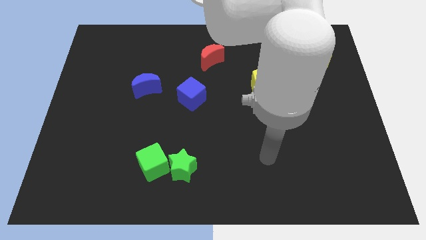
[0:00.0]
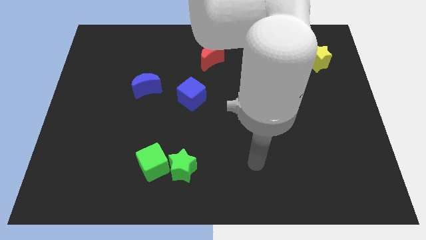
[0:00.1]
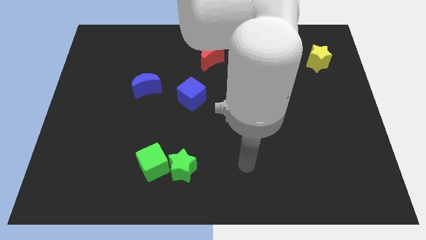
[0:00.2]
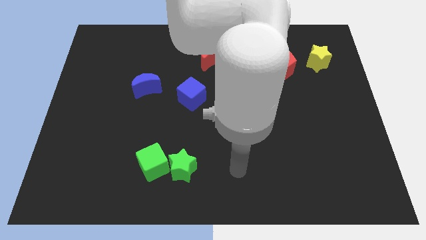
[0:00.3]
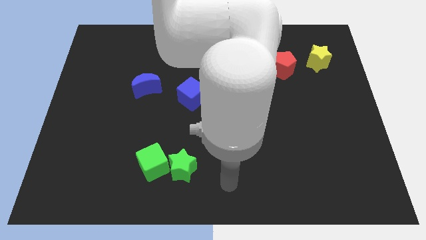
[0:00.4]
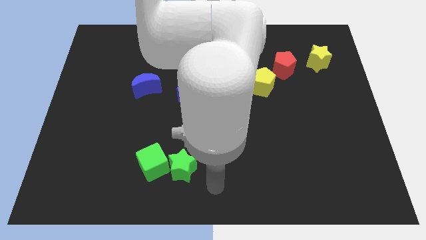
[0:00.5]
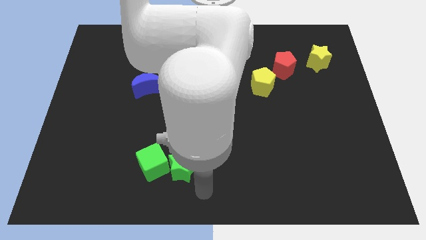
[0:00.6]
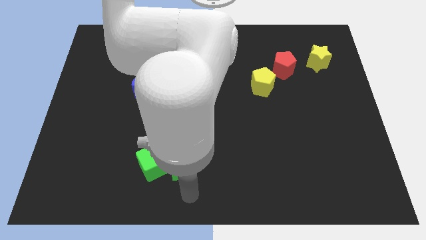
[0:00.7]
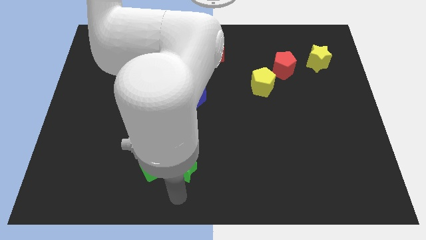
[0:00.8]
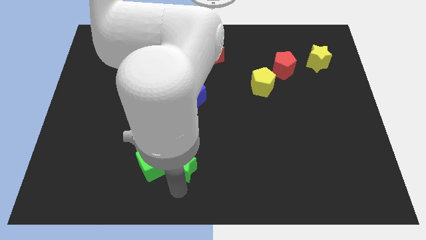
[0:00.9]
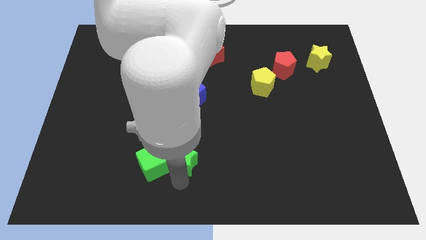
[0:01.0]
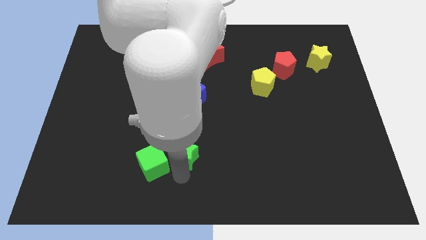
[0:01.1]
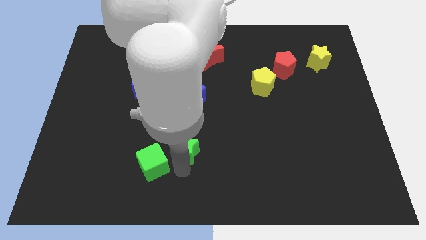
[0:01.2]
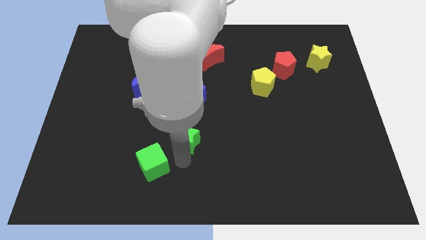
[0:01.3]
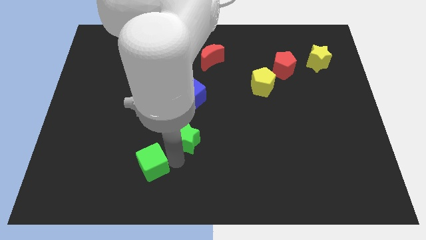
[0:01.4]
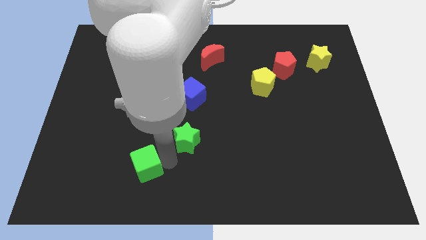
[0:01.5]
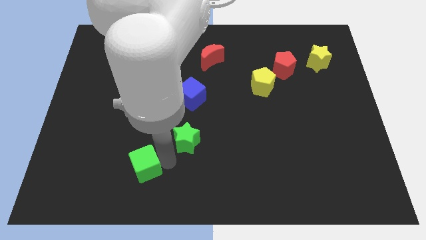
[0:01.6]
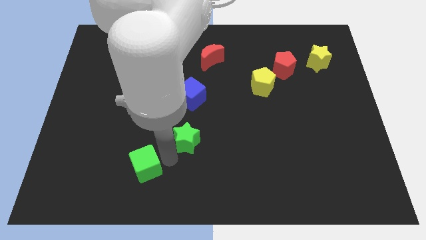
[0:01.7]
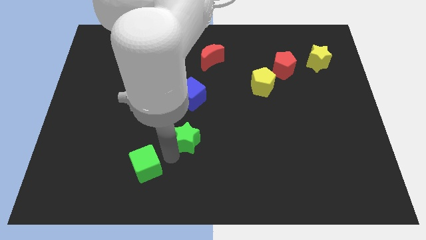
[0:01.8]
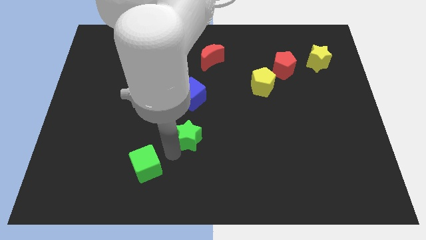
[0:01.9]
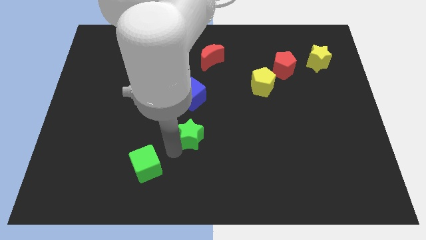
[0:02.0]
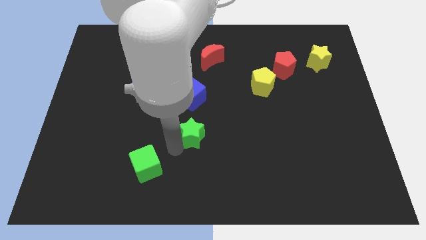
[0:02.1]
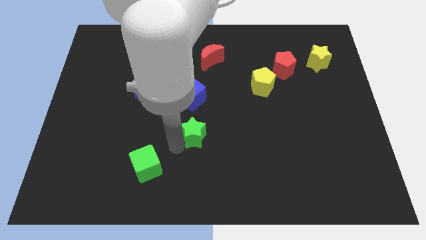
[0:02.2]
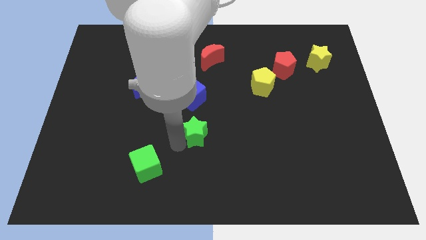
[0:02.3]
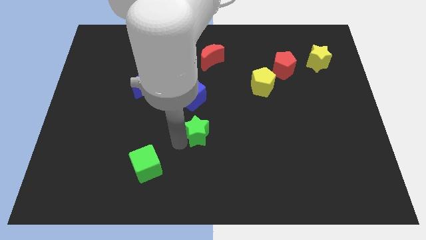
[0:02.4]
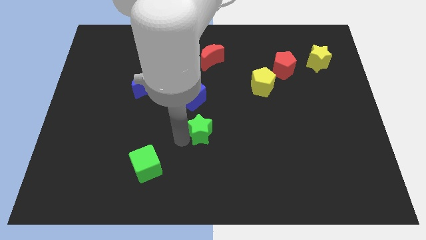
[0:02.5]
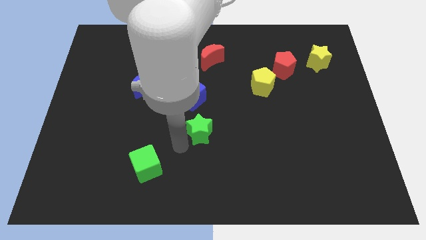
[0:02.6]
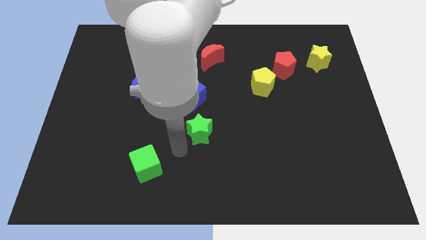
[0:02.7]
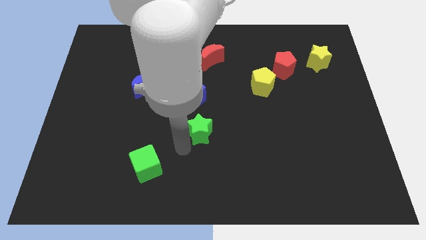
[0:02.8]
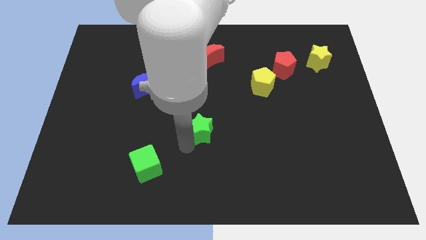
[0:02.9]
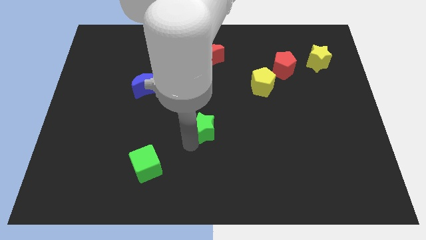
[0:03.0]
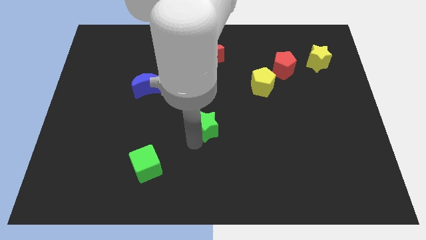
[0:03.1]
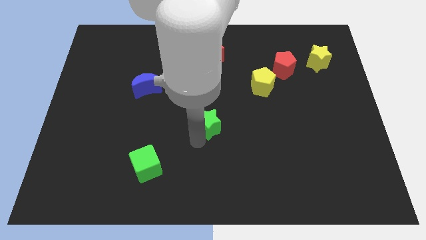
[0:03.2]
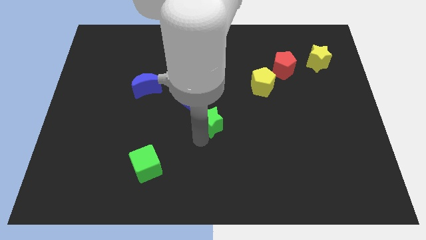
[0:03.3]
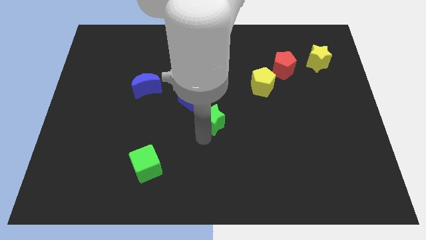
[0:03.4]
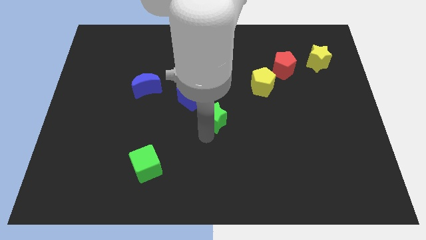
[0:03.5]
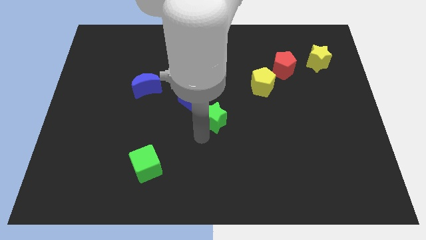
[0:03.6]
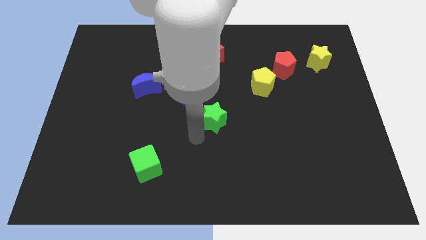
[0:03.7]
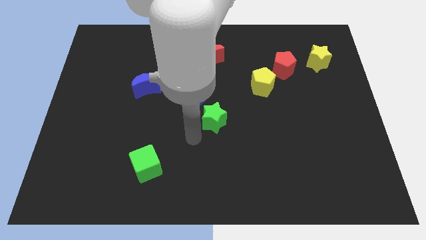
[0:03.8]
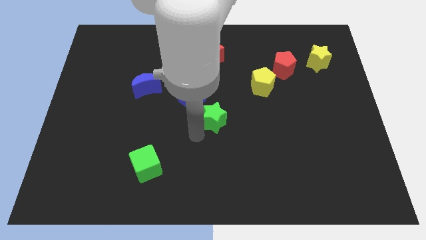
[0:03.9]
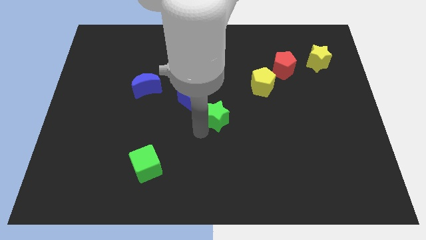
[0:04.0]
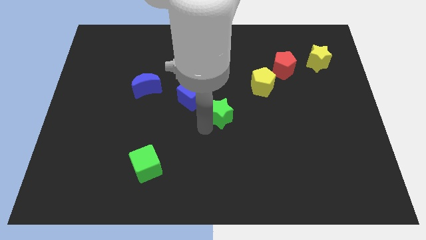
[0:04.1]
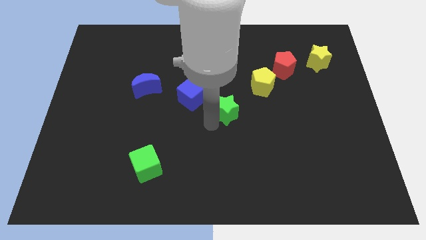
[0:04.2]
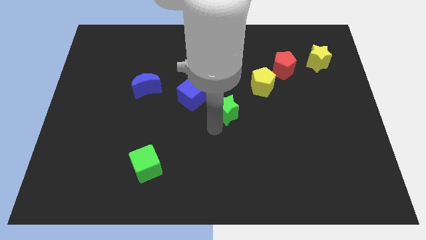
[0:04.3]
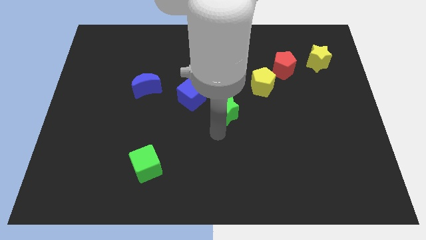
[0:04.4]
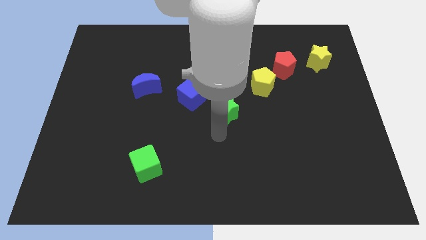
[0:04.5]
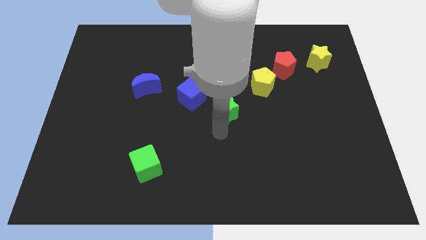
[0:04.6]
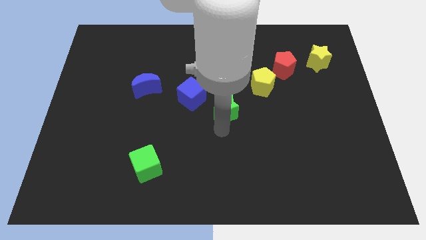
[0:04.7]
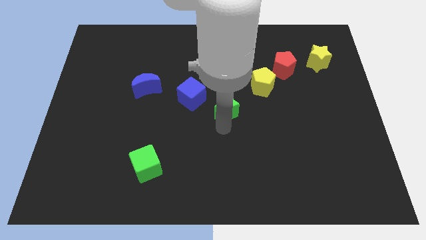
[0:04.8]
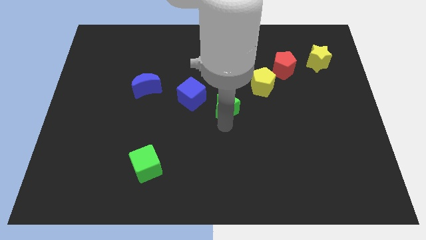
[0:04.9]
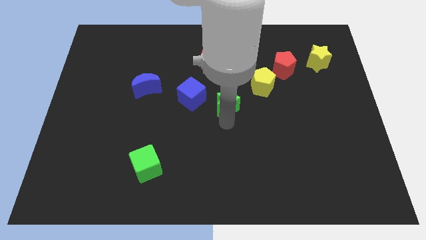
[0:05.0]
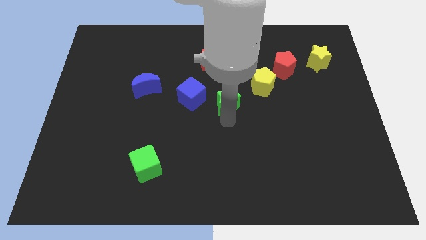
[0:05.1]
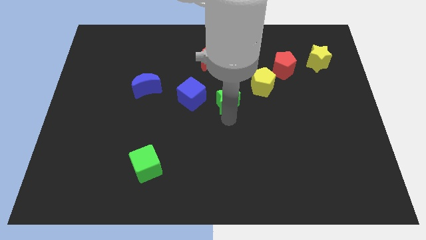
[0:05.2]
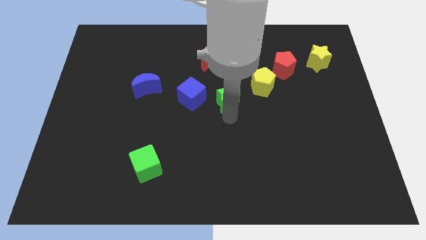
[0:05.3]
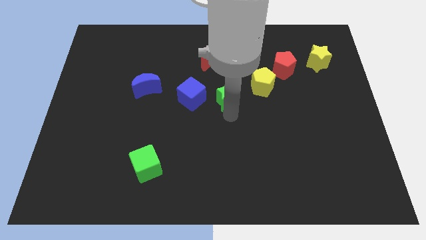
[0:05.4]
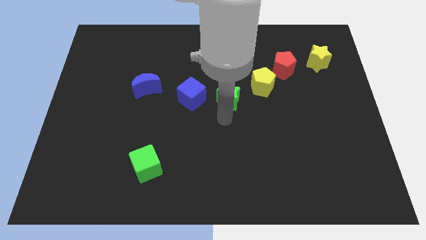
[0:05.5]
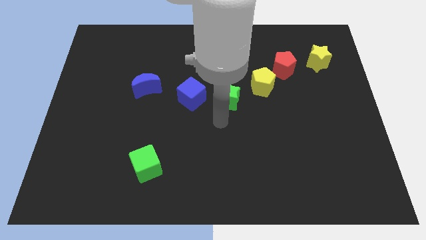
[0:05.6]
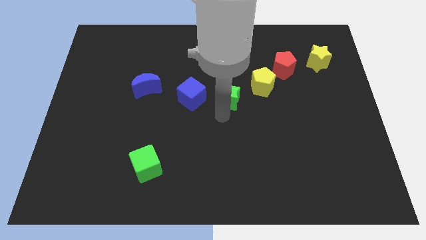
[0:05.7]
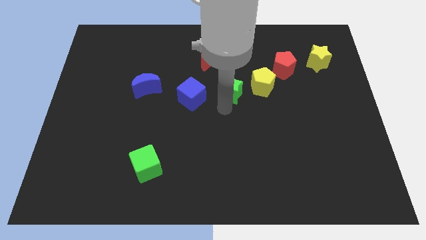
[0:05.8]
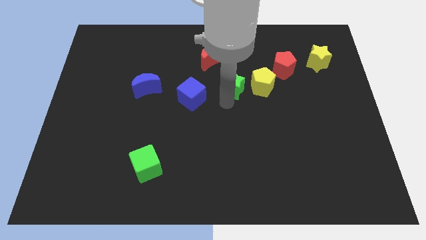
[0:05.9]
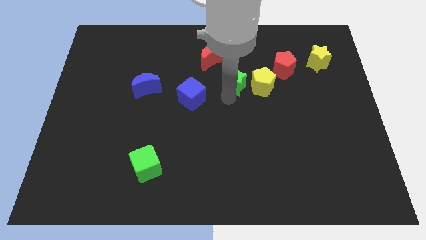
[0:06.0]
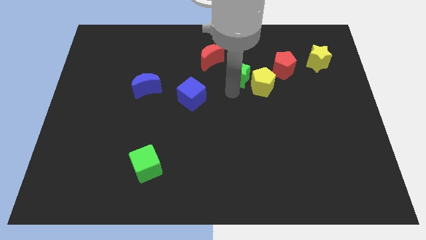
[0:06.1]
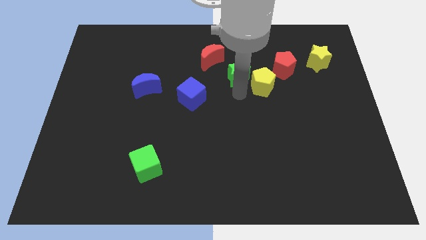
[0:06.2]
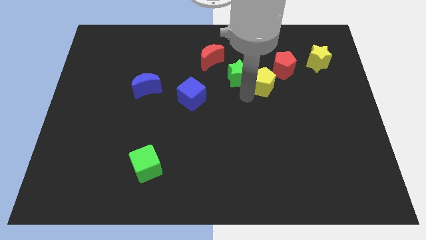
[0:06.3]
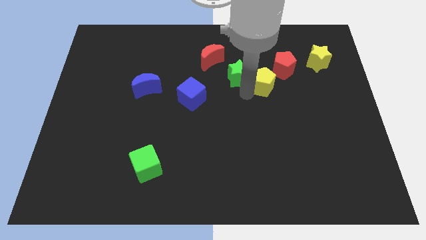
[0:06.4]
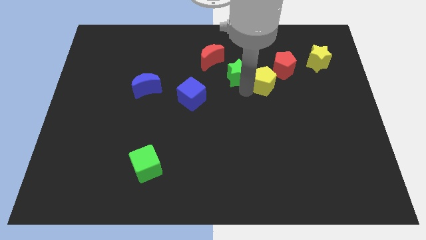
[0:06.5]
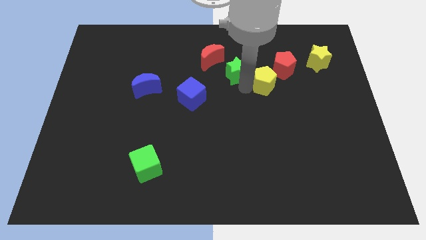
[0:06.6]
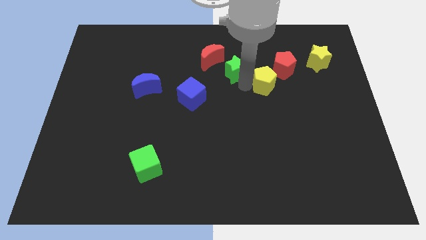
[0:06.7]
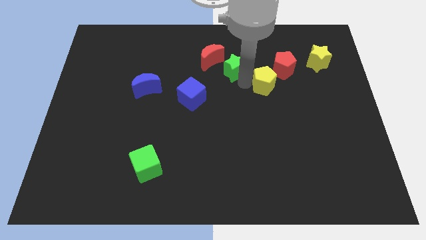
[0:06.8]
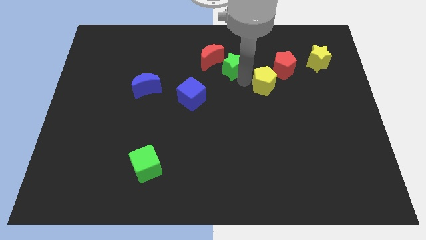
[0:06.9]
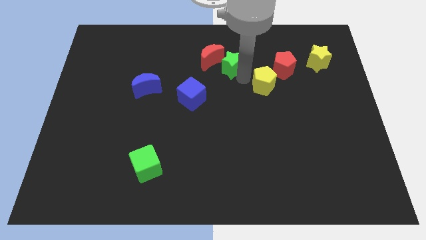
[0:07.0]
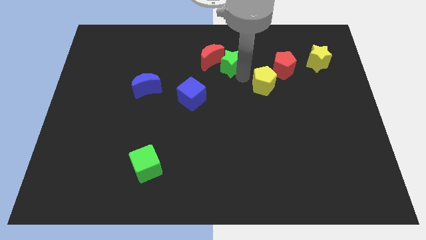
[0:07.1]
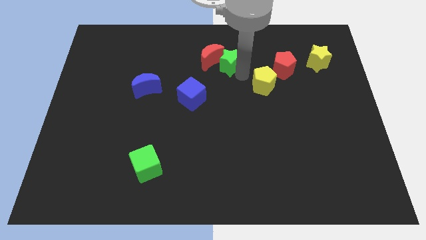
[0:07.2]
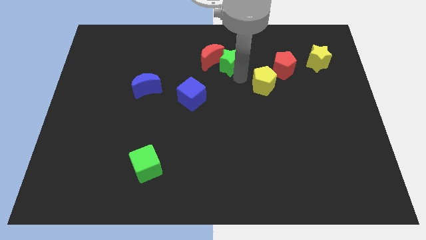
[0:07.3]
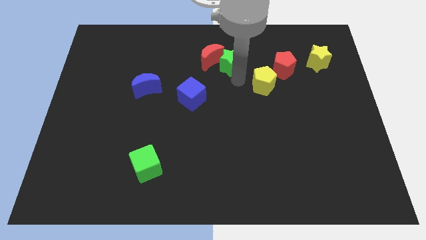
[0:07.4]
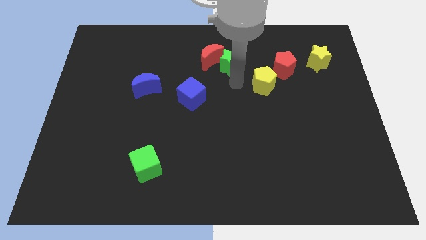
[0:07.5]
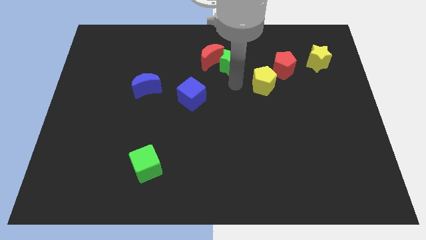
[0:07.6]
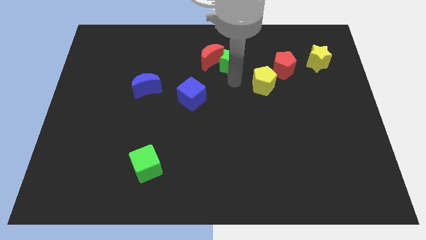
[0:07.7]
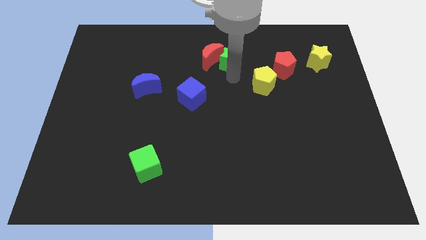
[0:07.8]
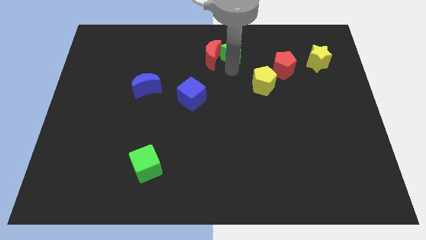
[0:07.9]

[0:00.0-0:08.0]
put the green star to the towards your base
